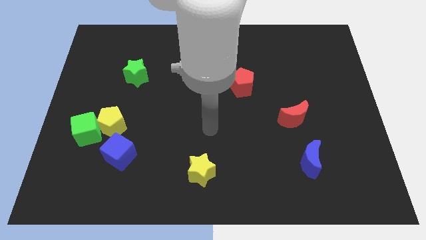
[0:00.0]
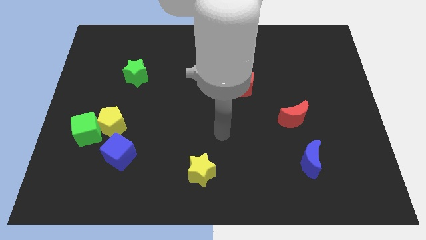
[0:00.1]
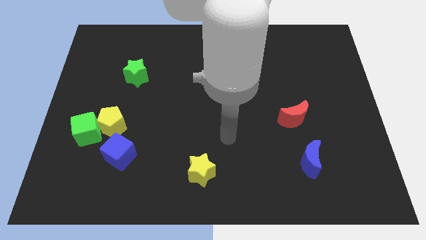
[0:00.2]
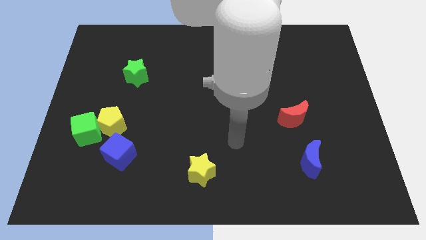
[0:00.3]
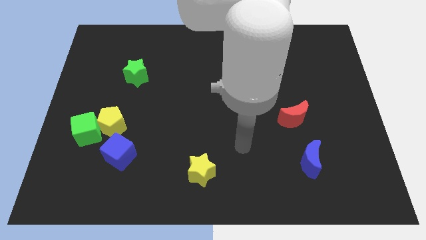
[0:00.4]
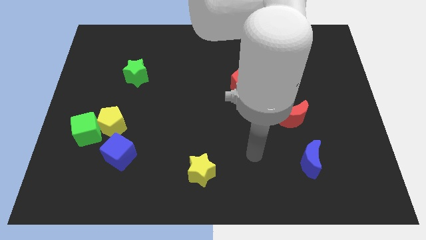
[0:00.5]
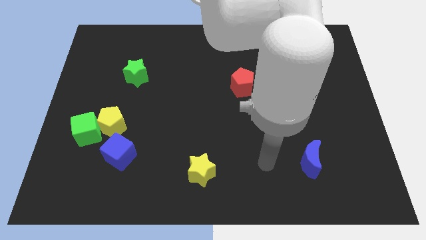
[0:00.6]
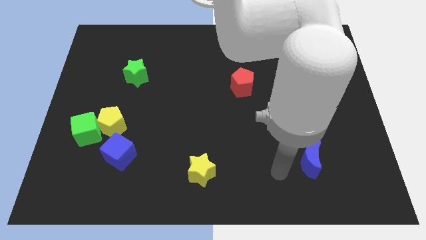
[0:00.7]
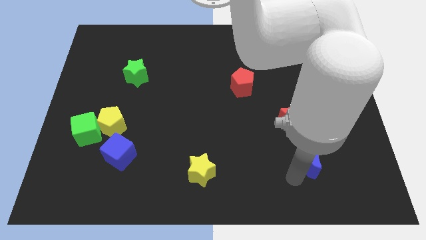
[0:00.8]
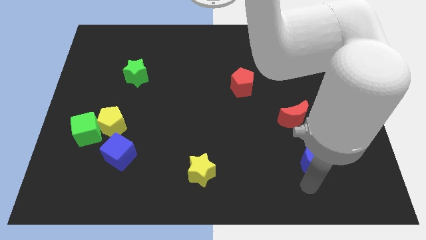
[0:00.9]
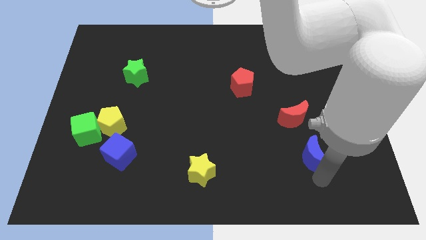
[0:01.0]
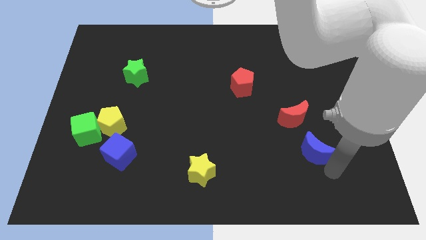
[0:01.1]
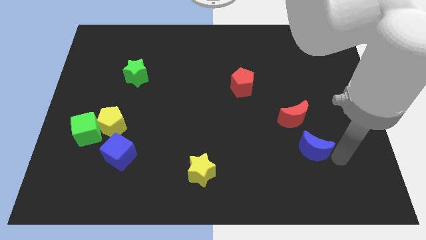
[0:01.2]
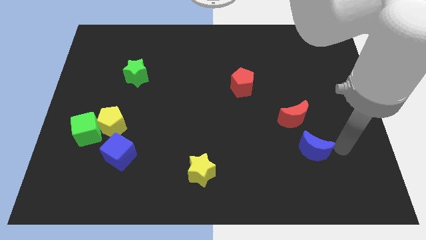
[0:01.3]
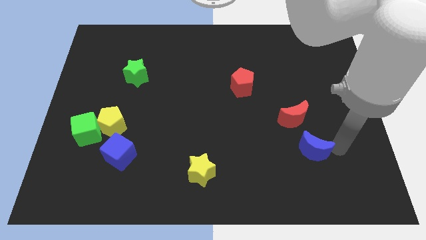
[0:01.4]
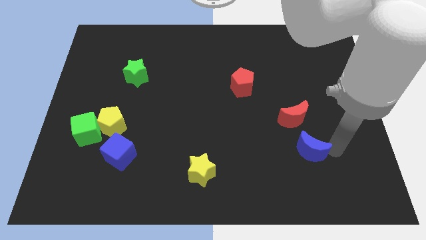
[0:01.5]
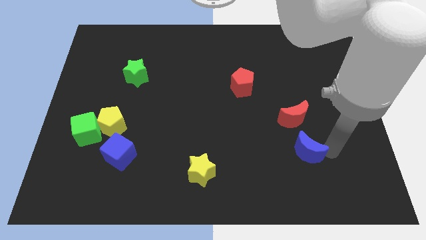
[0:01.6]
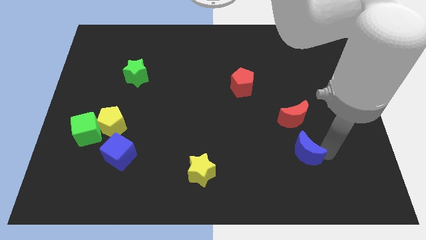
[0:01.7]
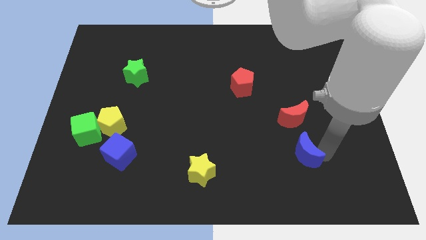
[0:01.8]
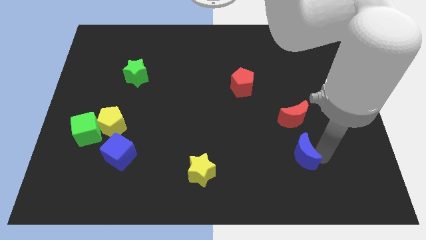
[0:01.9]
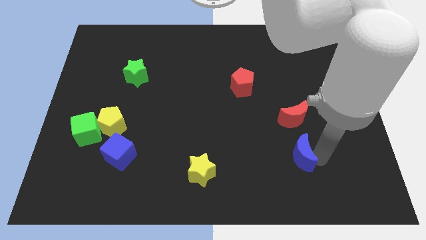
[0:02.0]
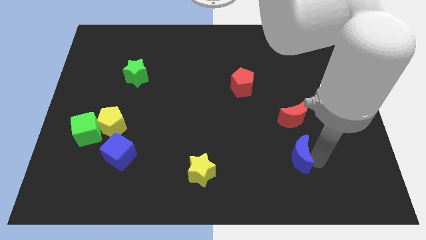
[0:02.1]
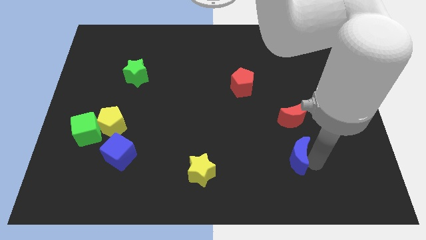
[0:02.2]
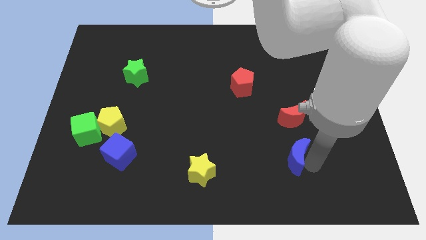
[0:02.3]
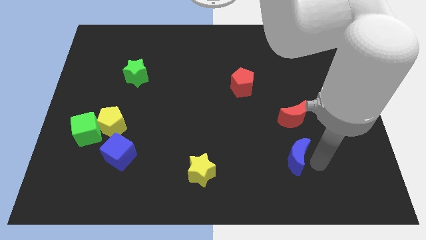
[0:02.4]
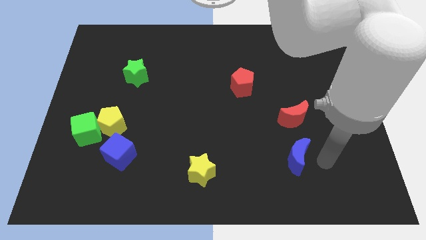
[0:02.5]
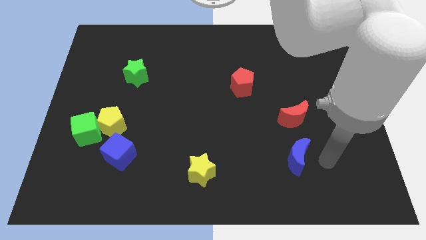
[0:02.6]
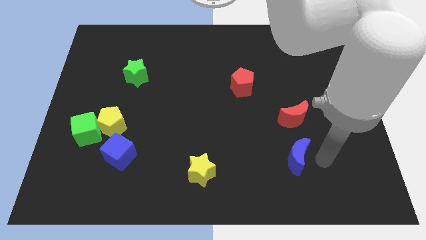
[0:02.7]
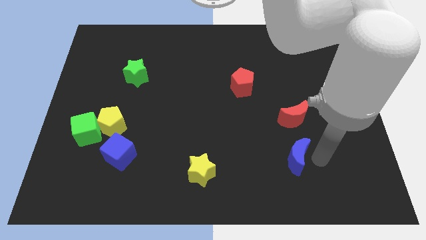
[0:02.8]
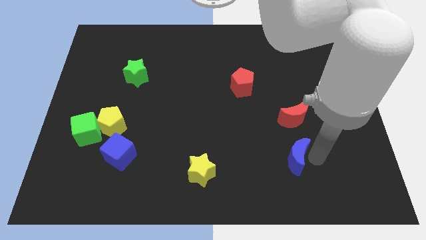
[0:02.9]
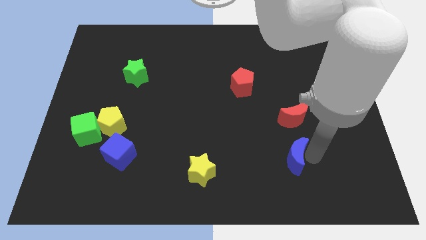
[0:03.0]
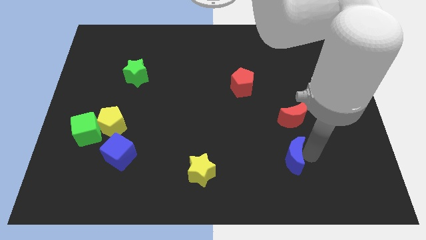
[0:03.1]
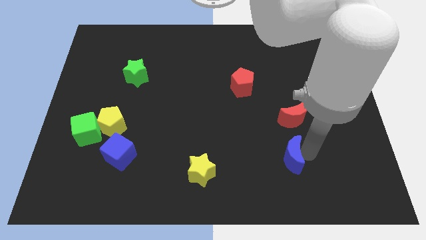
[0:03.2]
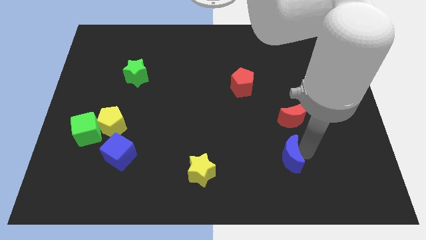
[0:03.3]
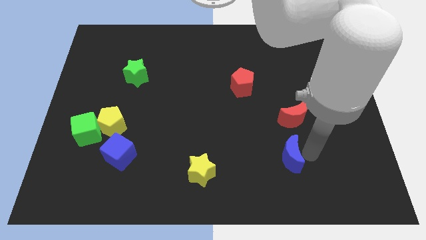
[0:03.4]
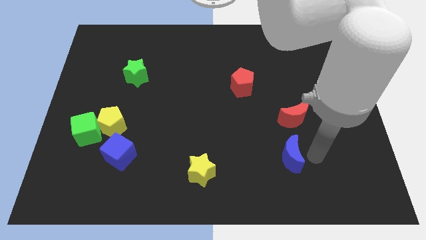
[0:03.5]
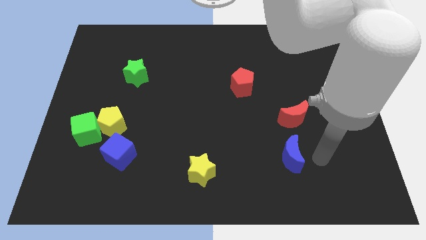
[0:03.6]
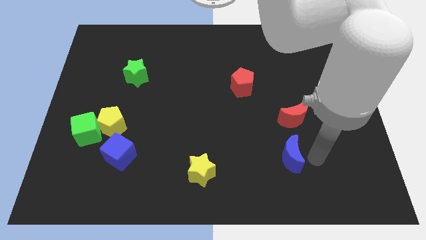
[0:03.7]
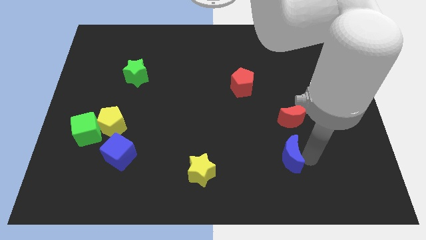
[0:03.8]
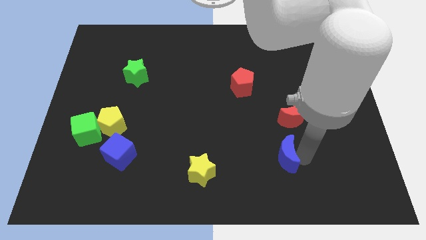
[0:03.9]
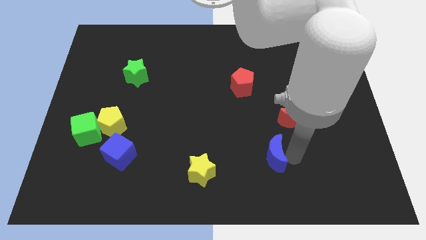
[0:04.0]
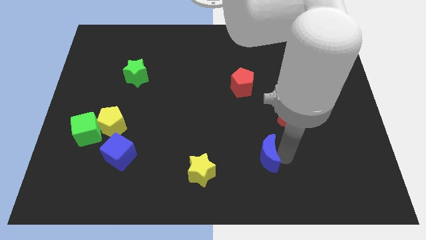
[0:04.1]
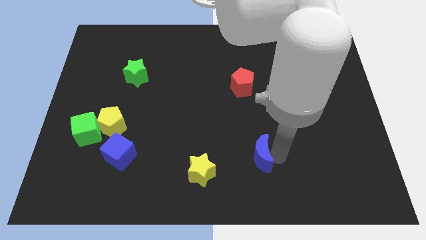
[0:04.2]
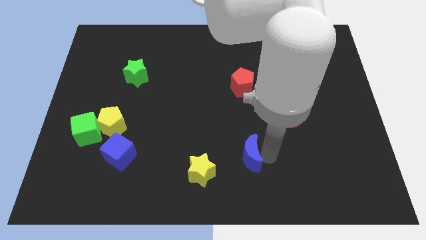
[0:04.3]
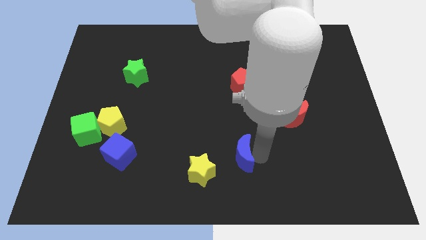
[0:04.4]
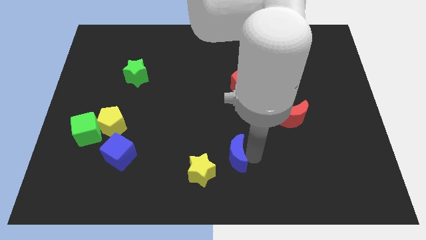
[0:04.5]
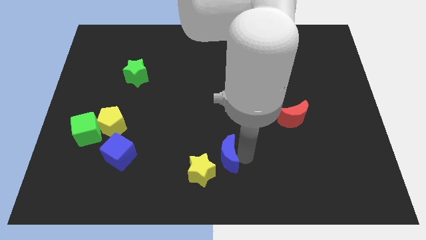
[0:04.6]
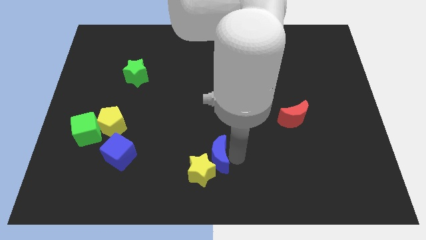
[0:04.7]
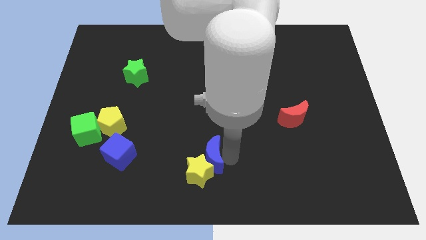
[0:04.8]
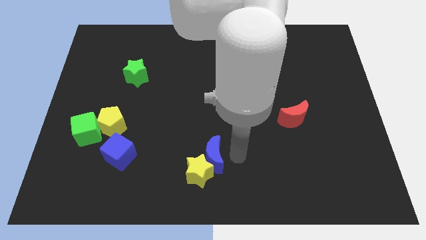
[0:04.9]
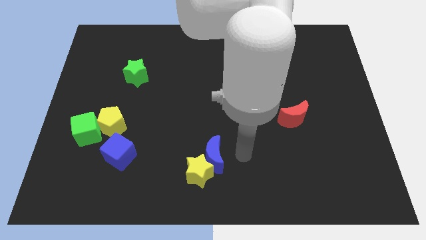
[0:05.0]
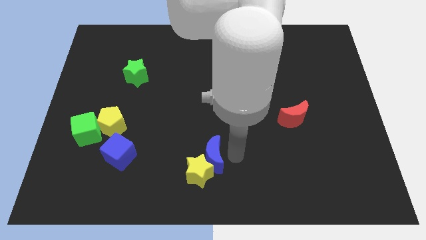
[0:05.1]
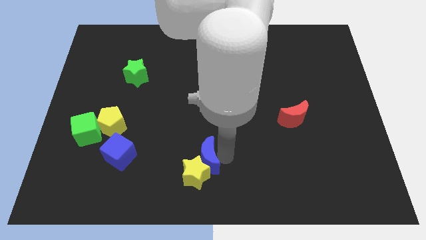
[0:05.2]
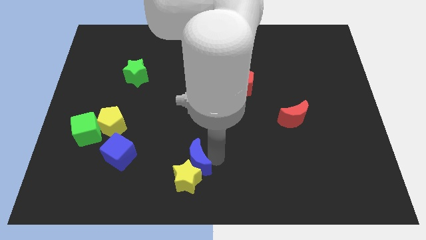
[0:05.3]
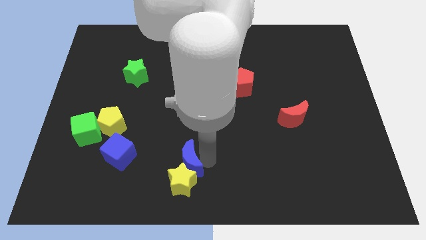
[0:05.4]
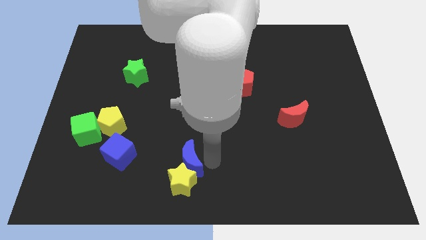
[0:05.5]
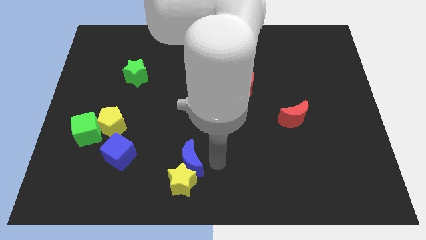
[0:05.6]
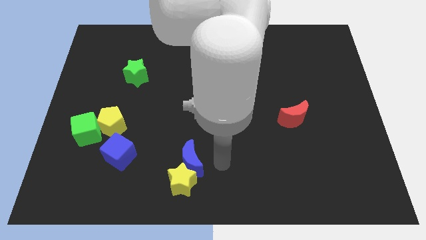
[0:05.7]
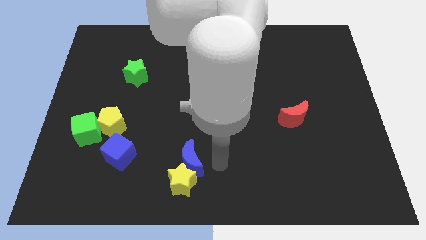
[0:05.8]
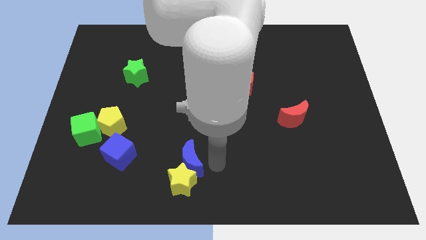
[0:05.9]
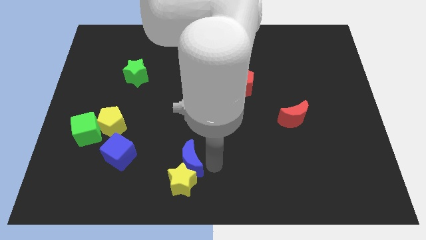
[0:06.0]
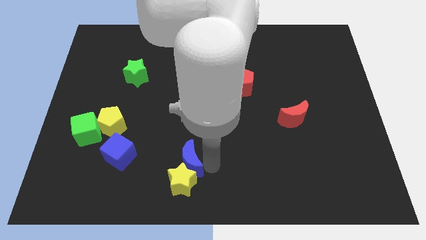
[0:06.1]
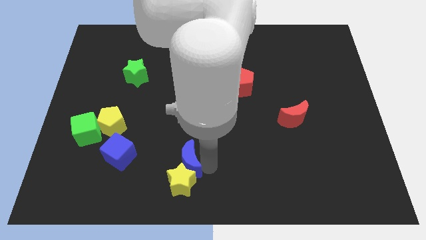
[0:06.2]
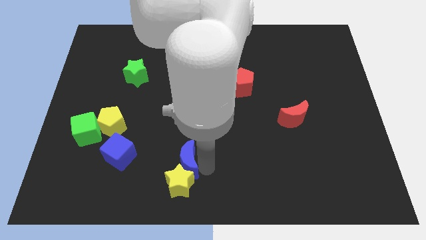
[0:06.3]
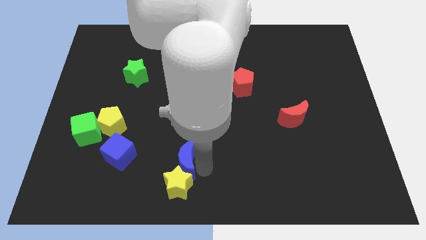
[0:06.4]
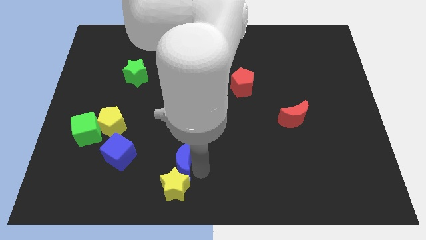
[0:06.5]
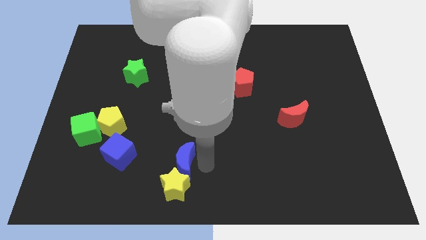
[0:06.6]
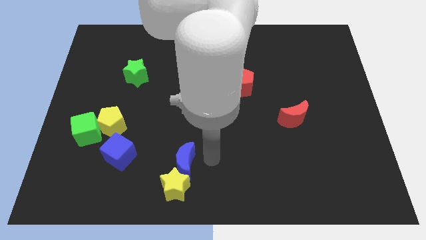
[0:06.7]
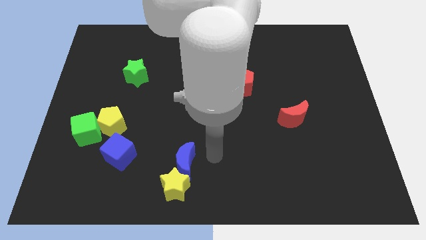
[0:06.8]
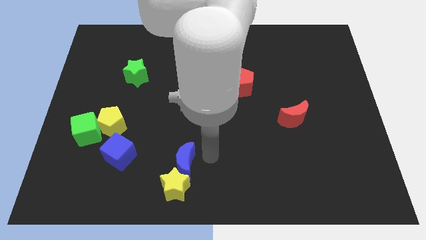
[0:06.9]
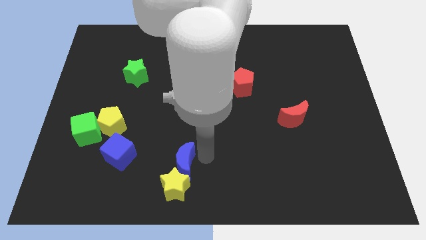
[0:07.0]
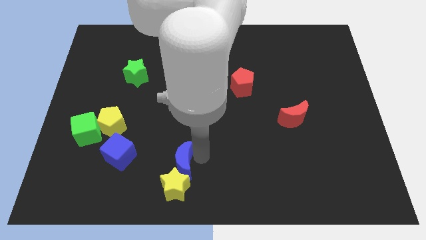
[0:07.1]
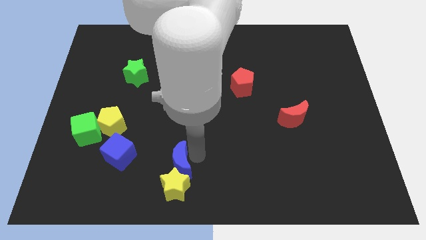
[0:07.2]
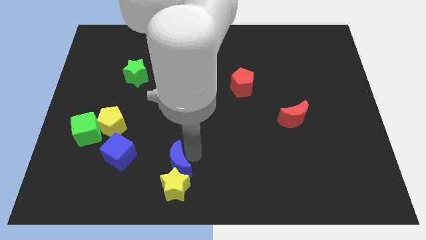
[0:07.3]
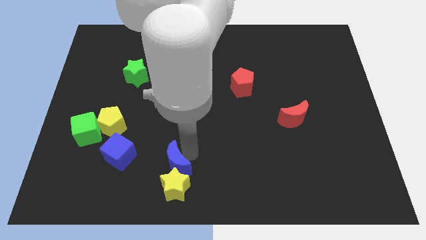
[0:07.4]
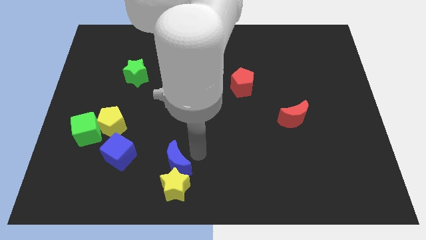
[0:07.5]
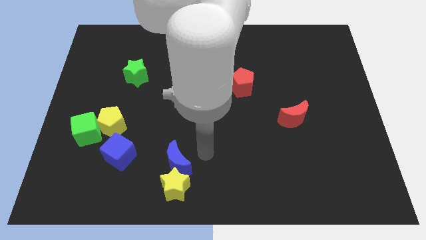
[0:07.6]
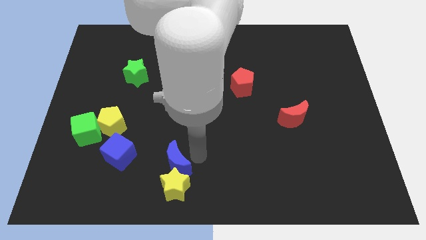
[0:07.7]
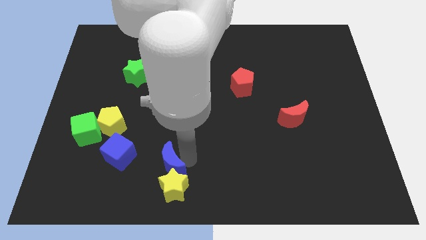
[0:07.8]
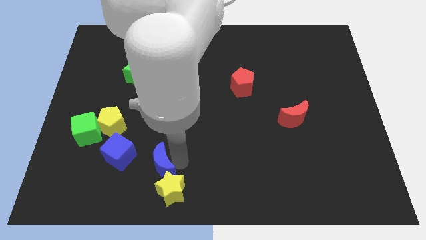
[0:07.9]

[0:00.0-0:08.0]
put the blue moon to the bottom right side of the blue cube
